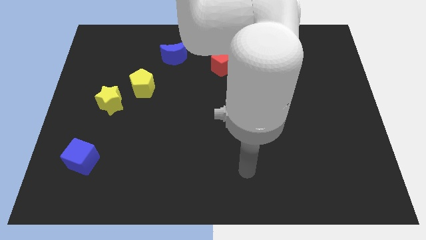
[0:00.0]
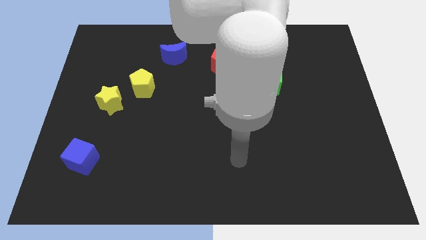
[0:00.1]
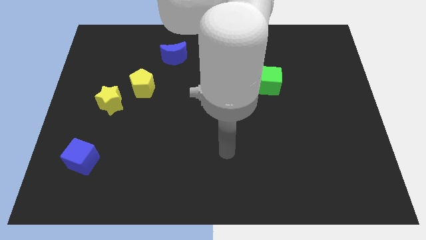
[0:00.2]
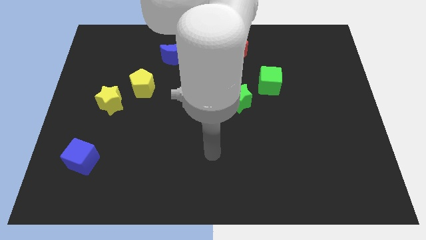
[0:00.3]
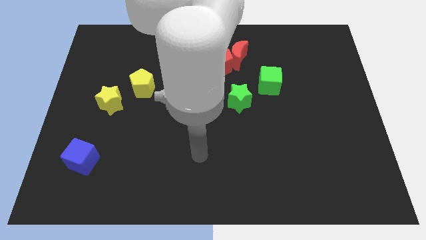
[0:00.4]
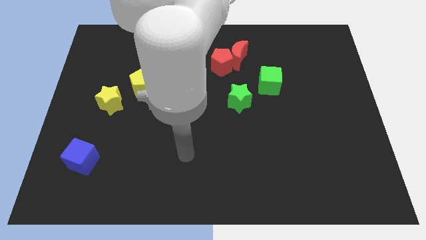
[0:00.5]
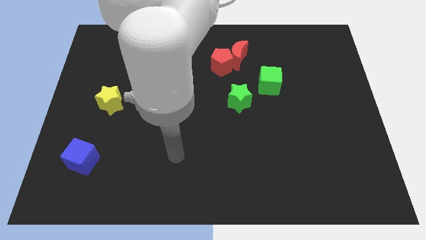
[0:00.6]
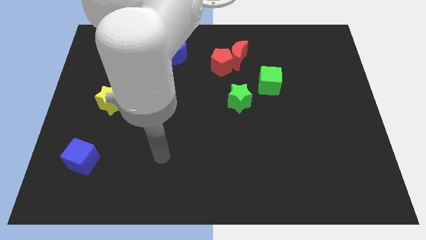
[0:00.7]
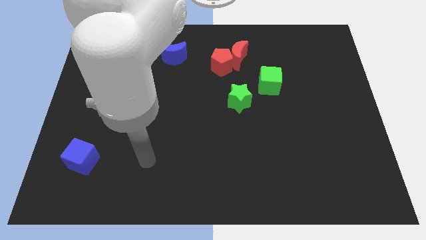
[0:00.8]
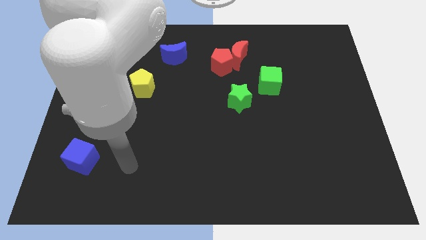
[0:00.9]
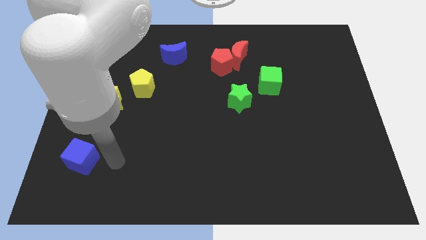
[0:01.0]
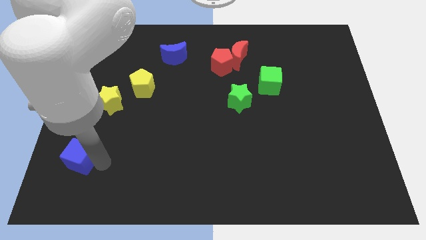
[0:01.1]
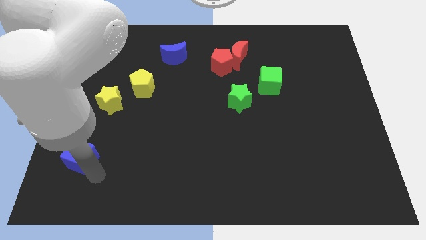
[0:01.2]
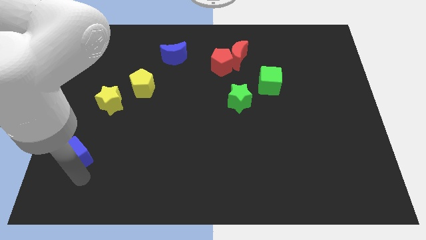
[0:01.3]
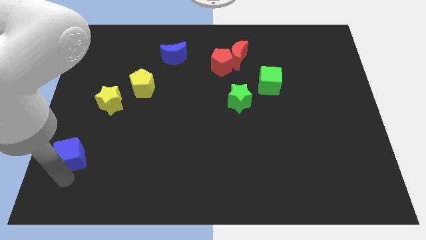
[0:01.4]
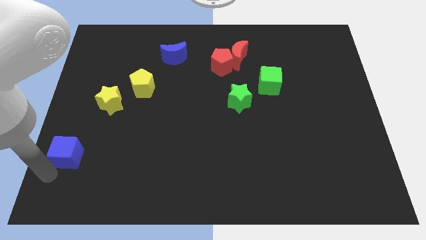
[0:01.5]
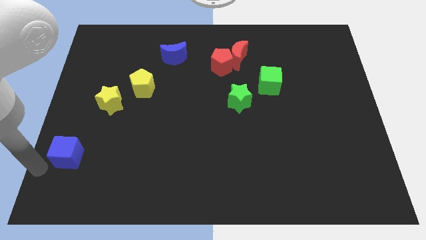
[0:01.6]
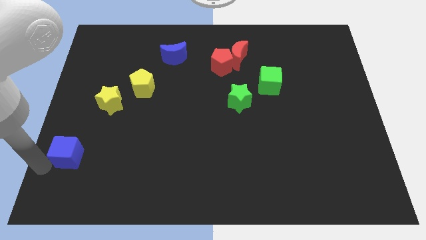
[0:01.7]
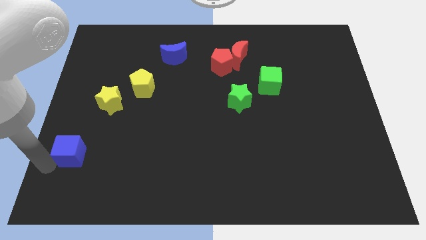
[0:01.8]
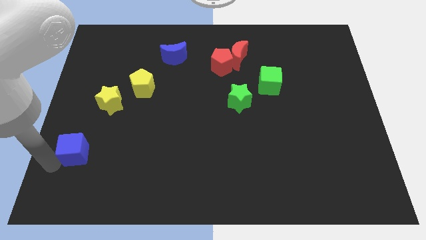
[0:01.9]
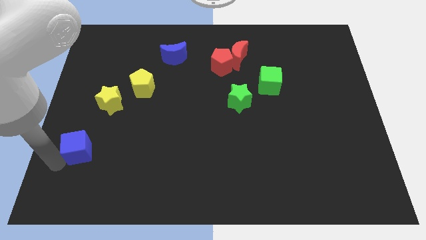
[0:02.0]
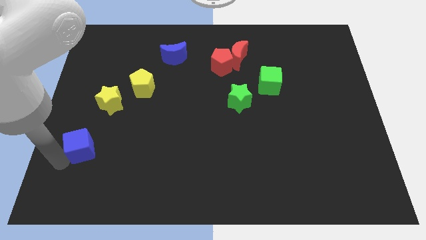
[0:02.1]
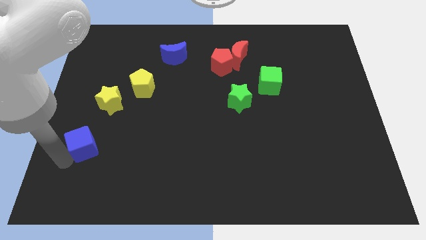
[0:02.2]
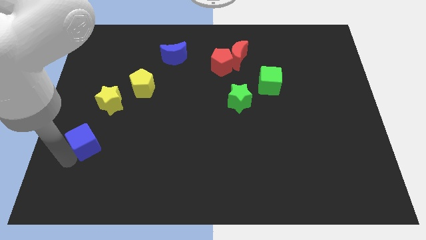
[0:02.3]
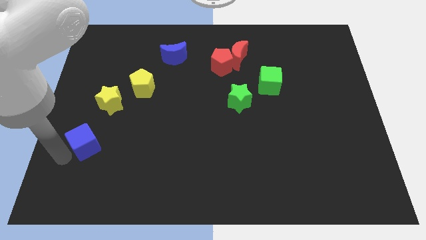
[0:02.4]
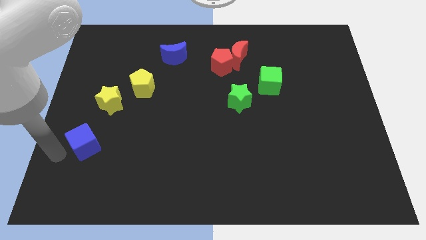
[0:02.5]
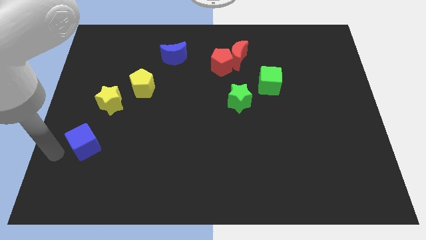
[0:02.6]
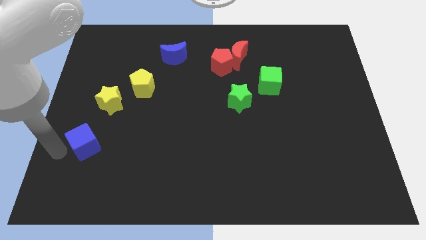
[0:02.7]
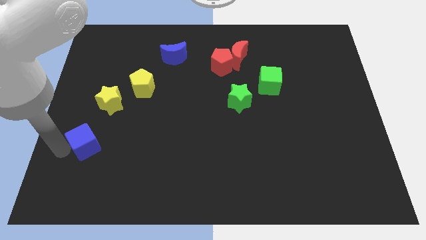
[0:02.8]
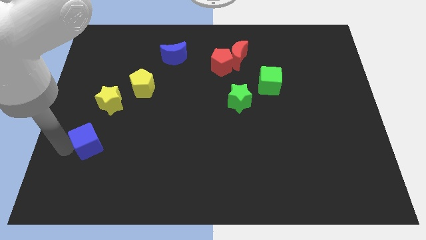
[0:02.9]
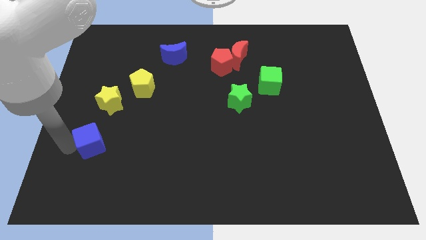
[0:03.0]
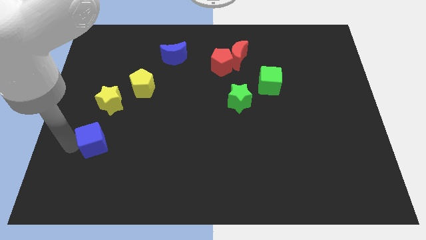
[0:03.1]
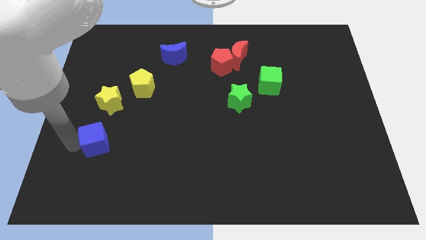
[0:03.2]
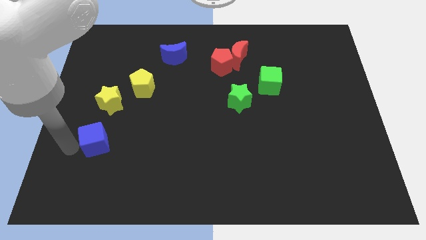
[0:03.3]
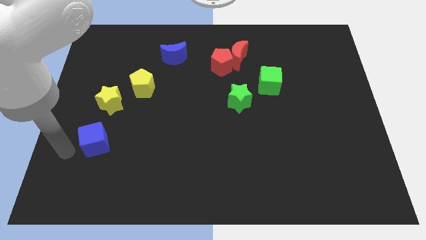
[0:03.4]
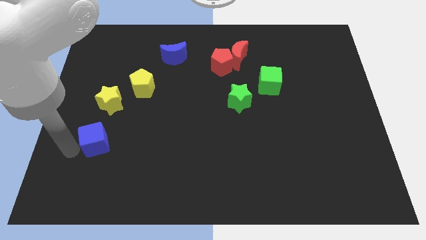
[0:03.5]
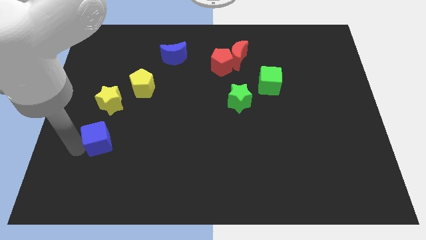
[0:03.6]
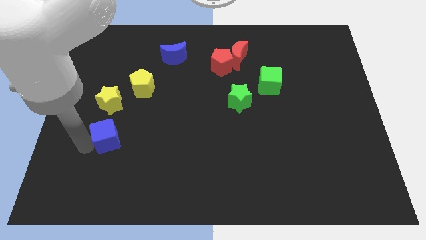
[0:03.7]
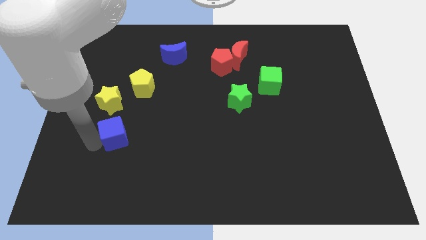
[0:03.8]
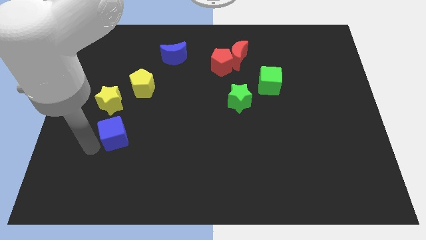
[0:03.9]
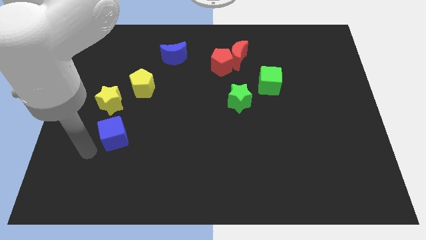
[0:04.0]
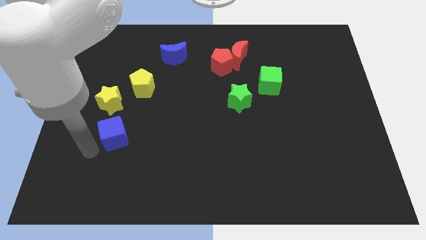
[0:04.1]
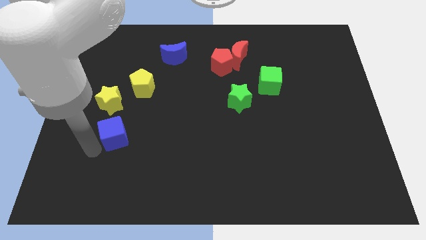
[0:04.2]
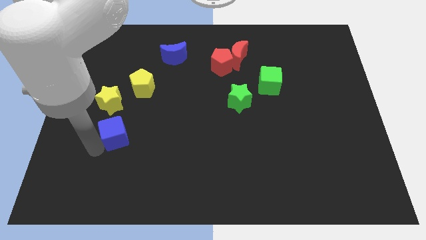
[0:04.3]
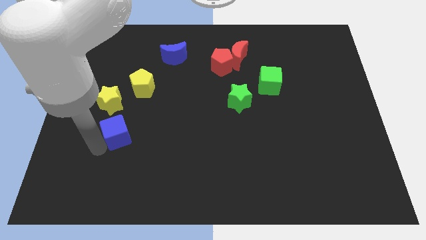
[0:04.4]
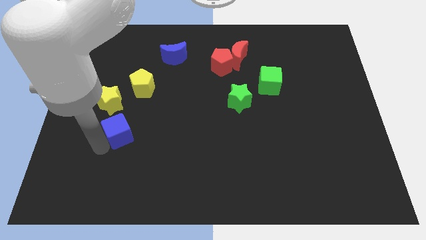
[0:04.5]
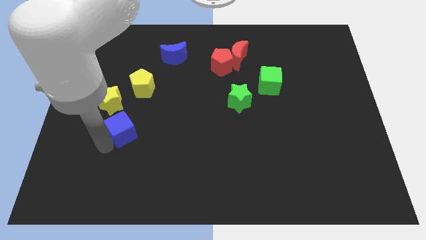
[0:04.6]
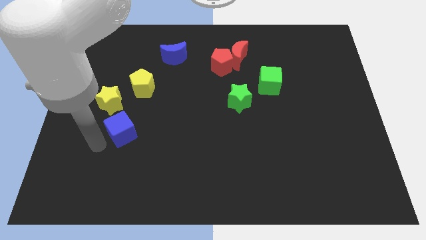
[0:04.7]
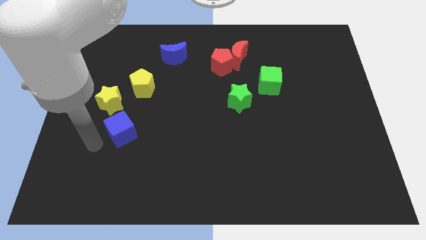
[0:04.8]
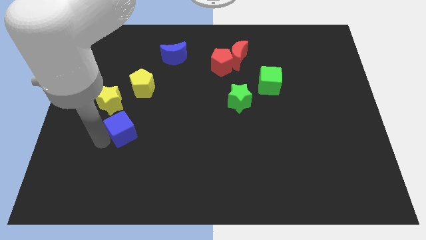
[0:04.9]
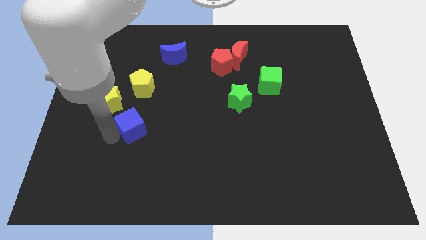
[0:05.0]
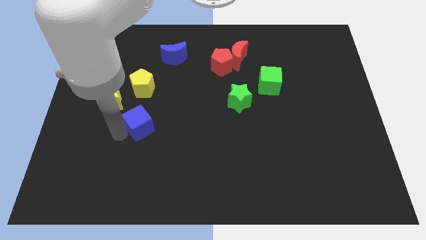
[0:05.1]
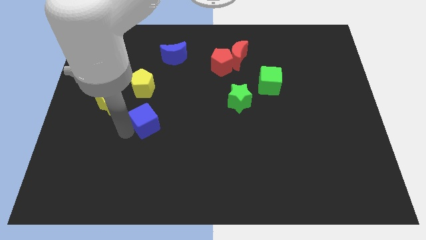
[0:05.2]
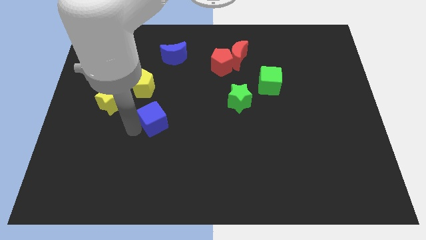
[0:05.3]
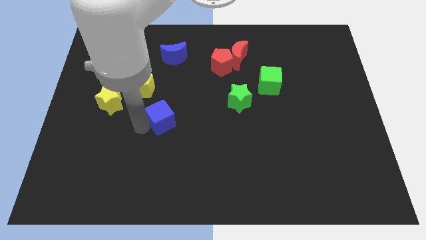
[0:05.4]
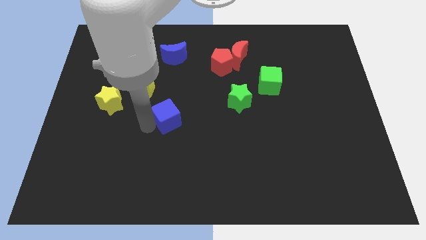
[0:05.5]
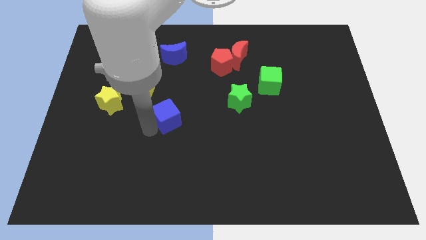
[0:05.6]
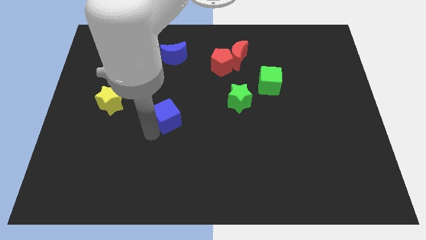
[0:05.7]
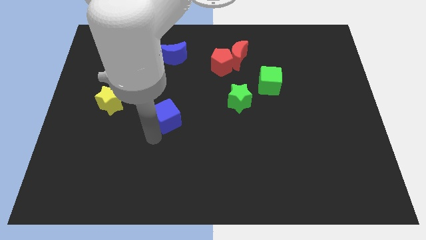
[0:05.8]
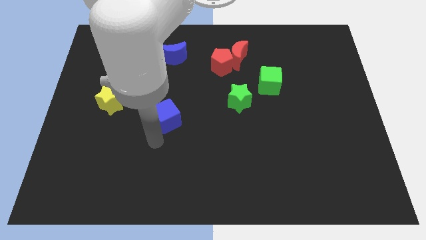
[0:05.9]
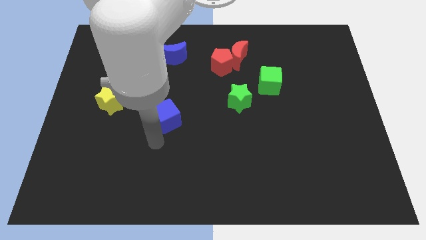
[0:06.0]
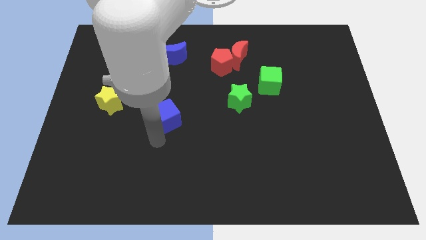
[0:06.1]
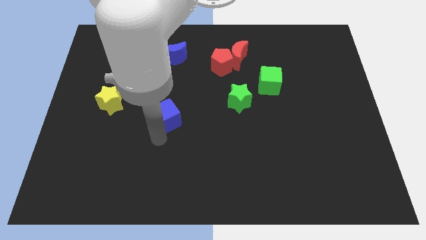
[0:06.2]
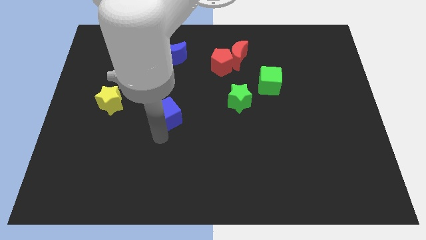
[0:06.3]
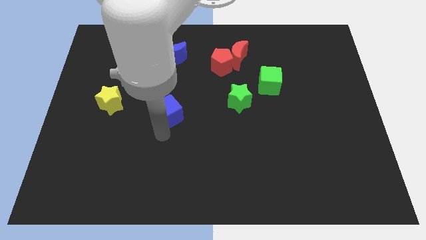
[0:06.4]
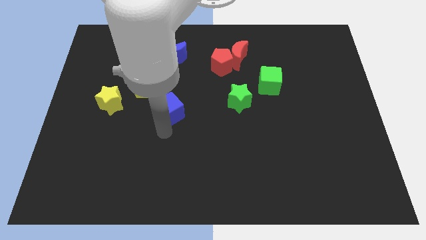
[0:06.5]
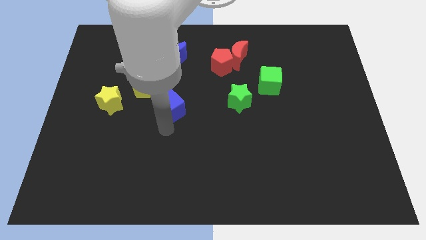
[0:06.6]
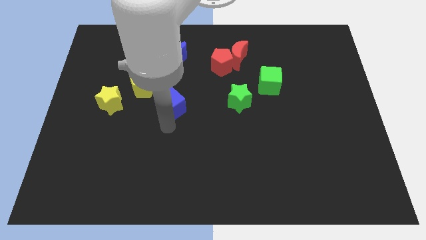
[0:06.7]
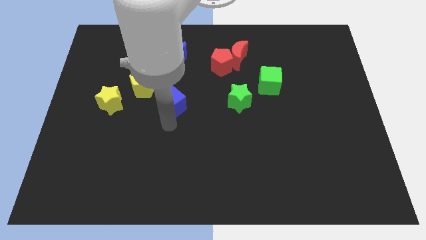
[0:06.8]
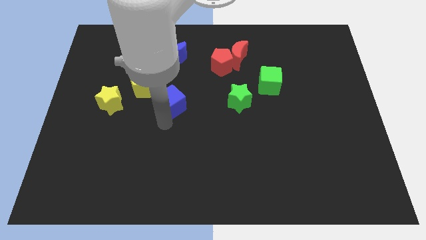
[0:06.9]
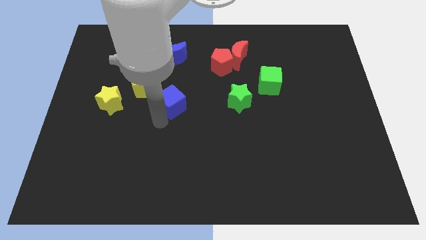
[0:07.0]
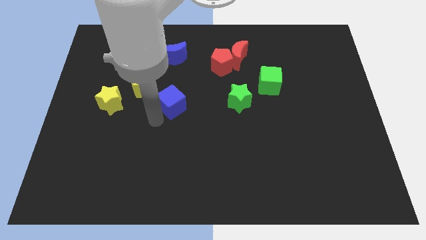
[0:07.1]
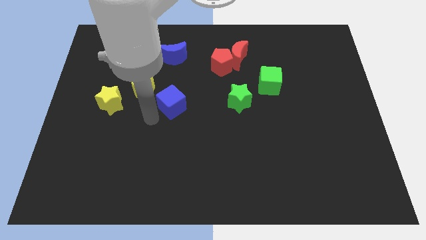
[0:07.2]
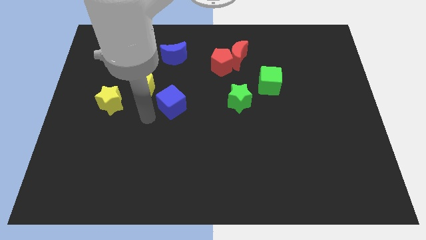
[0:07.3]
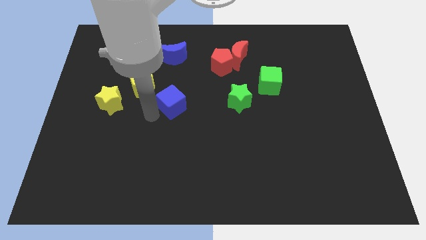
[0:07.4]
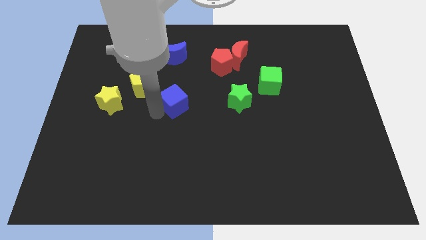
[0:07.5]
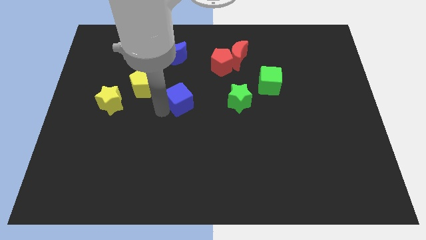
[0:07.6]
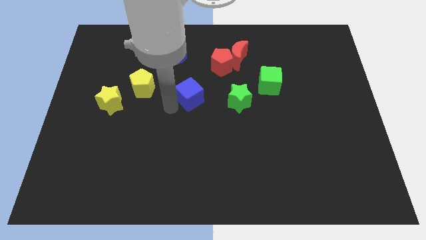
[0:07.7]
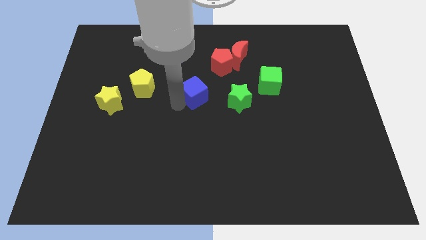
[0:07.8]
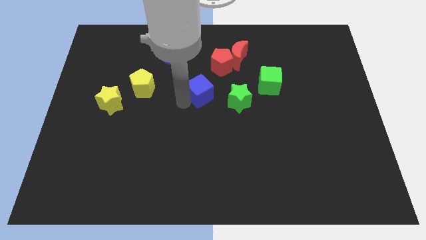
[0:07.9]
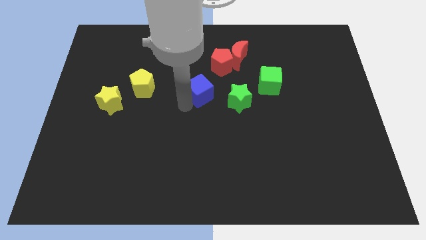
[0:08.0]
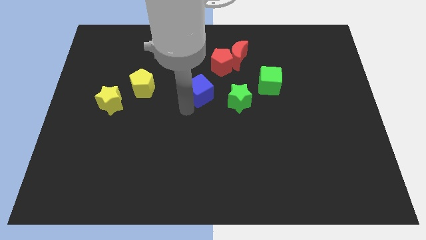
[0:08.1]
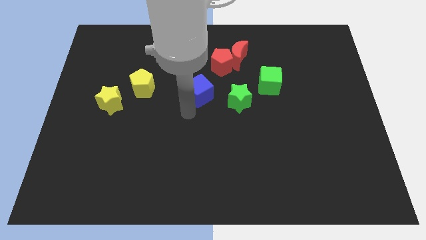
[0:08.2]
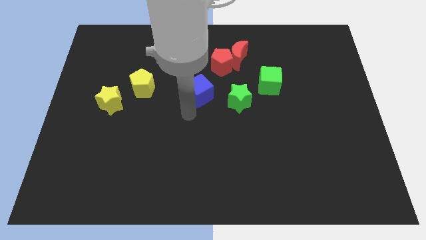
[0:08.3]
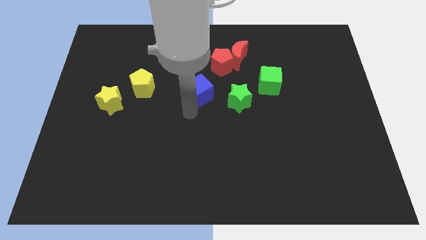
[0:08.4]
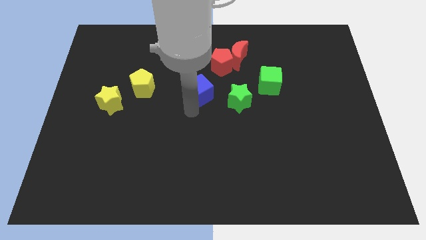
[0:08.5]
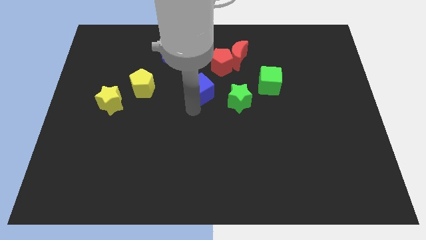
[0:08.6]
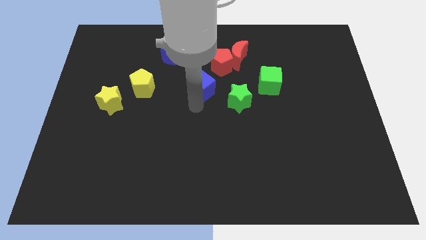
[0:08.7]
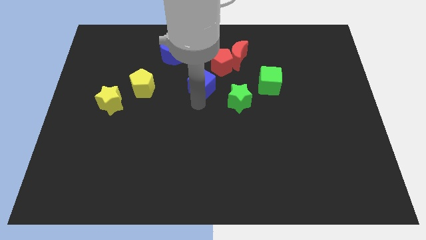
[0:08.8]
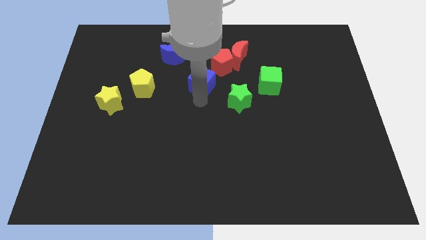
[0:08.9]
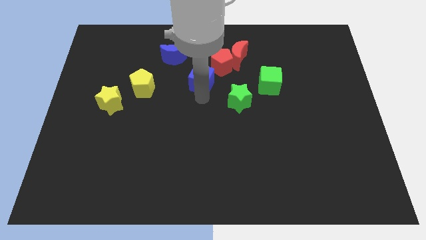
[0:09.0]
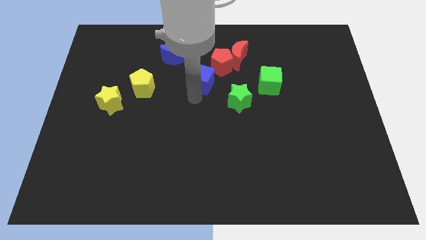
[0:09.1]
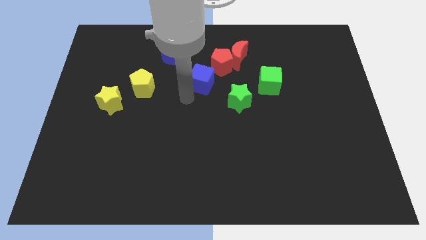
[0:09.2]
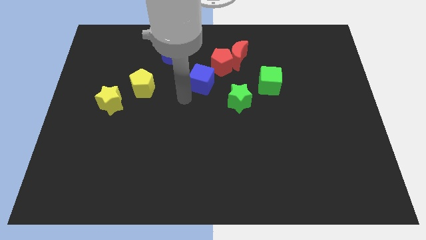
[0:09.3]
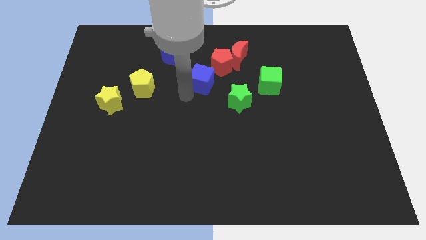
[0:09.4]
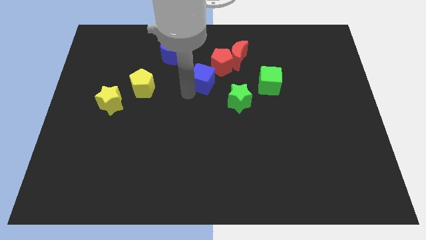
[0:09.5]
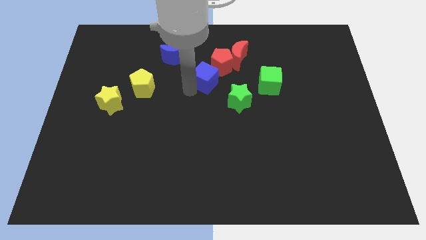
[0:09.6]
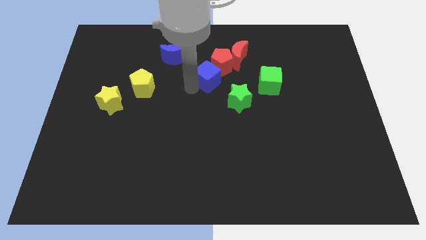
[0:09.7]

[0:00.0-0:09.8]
move the blue cube next to the red pentagon
